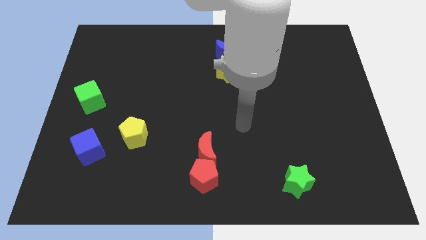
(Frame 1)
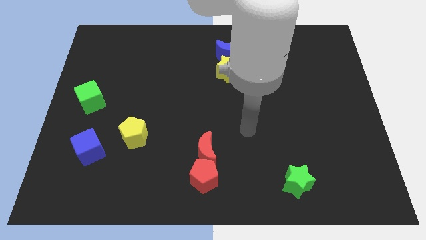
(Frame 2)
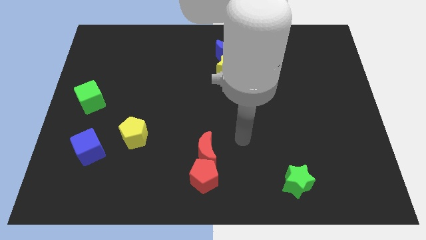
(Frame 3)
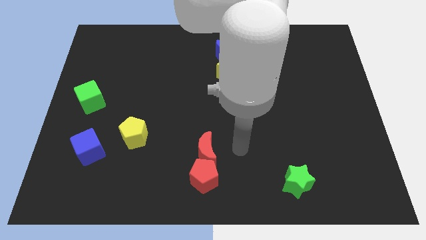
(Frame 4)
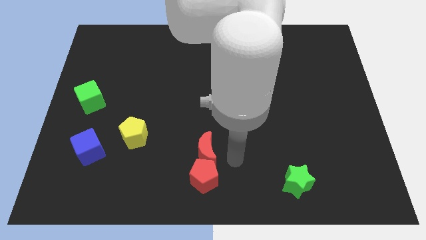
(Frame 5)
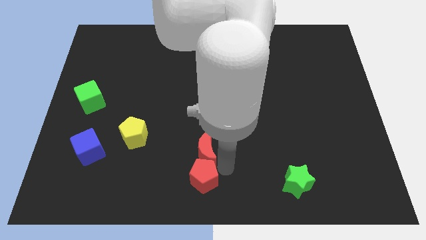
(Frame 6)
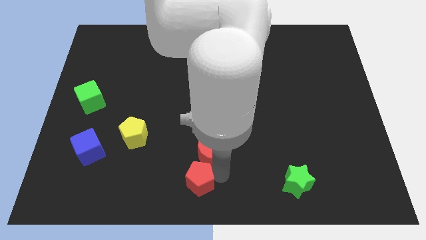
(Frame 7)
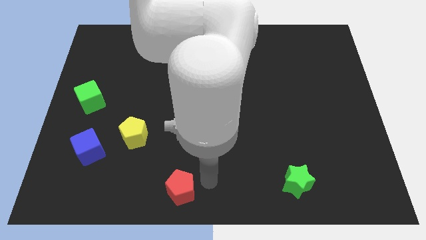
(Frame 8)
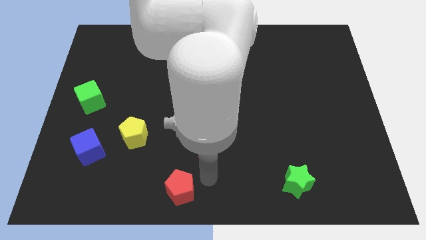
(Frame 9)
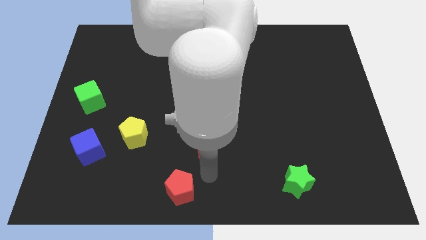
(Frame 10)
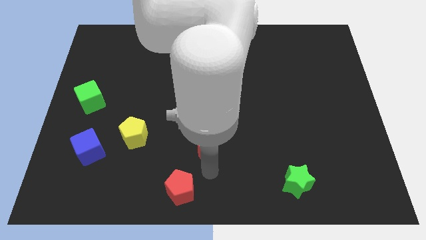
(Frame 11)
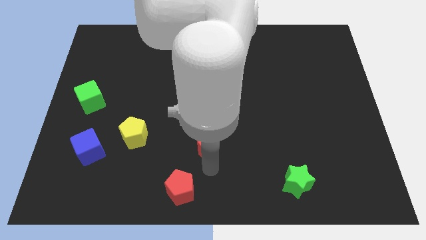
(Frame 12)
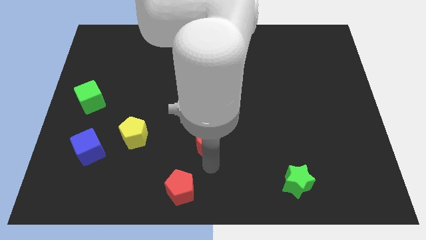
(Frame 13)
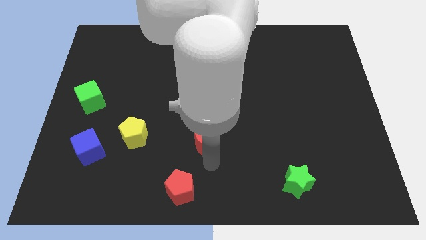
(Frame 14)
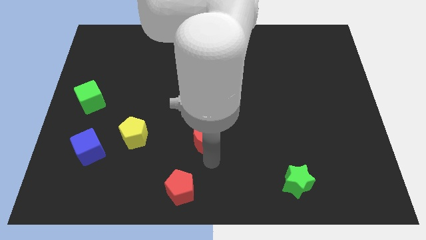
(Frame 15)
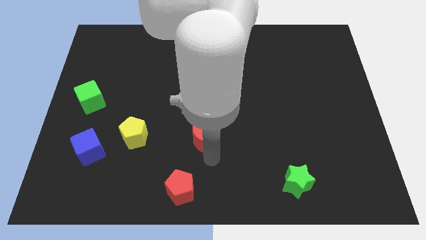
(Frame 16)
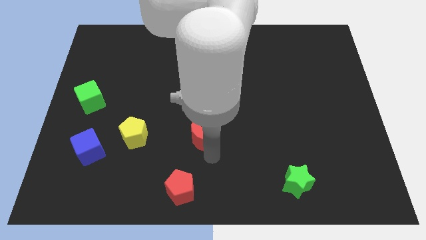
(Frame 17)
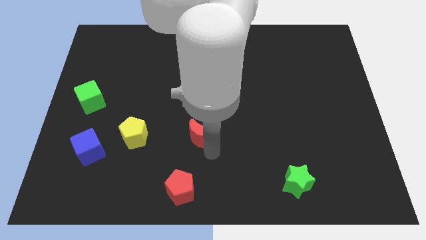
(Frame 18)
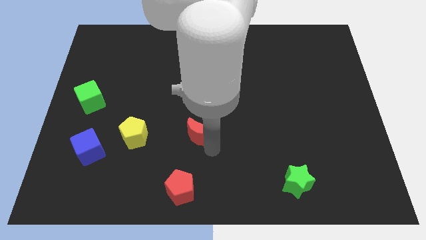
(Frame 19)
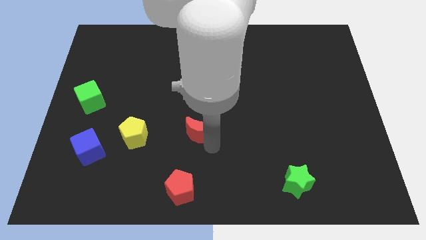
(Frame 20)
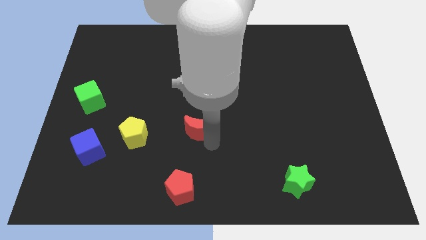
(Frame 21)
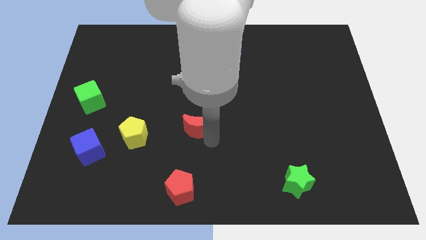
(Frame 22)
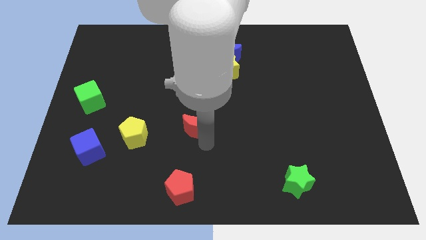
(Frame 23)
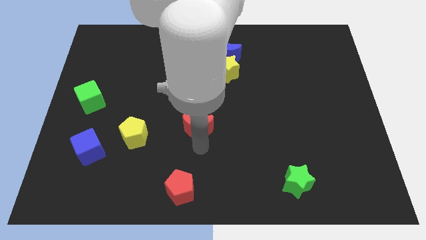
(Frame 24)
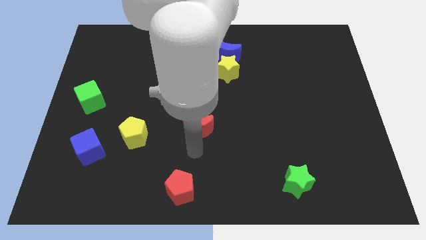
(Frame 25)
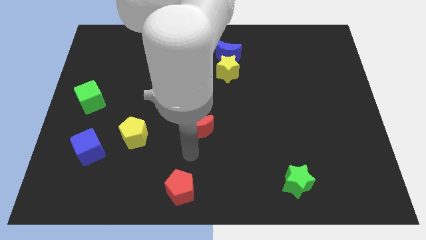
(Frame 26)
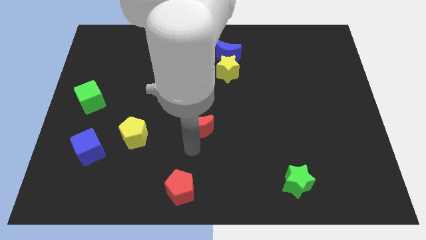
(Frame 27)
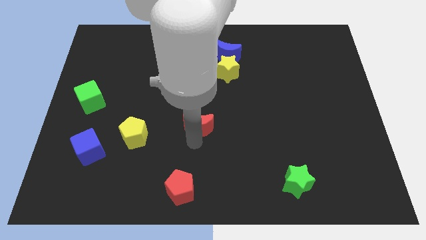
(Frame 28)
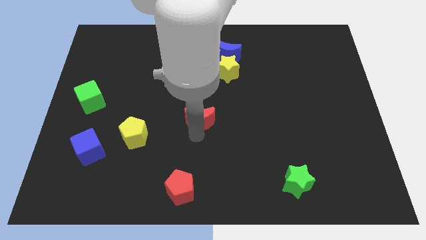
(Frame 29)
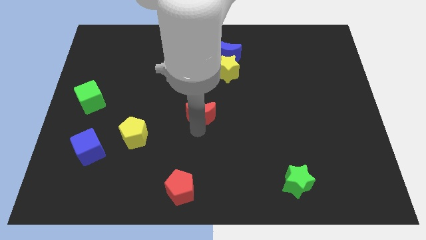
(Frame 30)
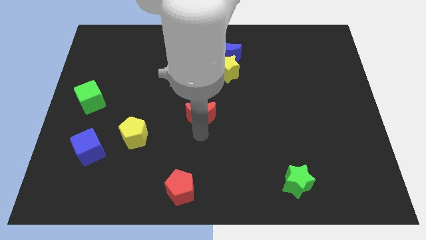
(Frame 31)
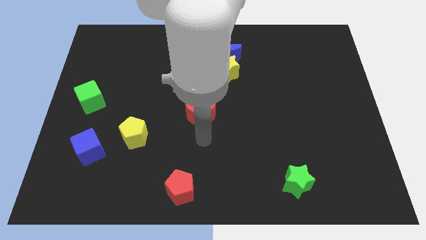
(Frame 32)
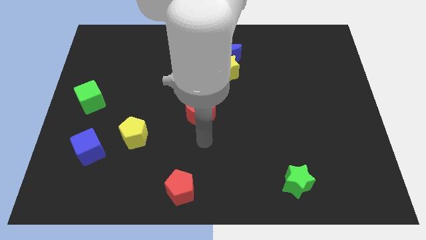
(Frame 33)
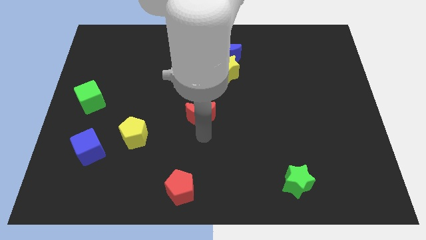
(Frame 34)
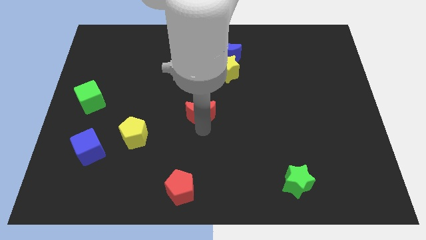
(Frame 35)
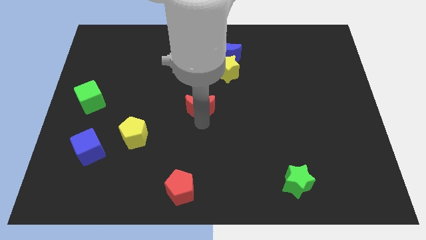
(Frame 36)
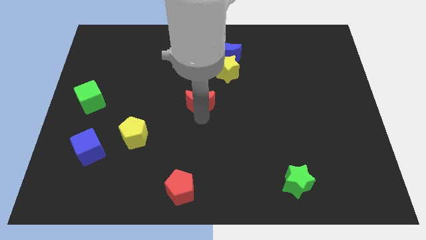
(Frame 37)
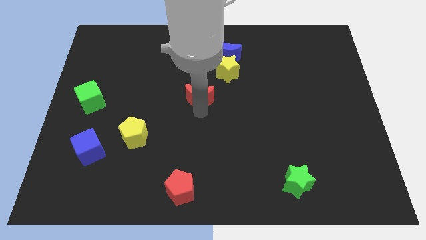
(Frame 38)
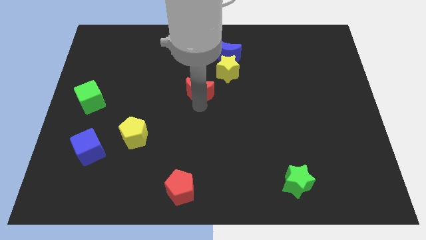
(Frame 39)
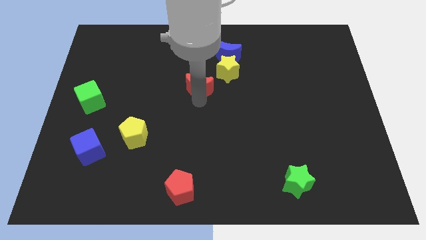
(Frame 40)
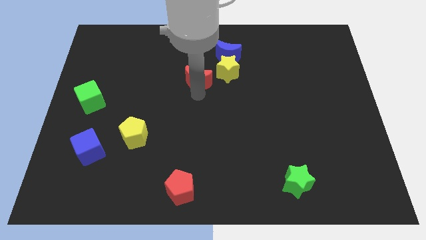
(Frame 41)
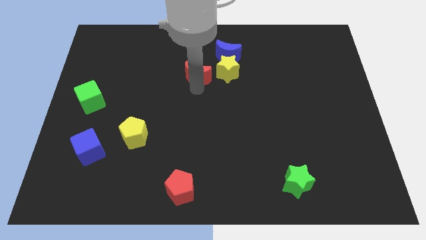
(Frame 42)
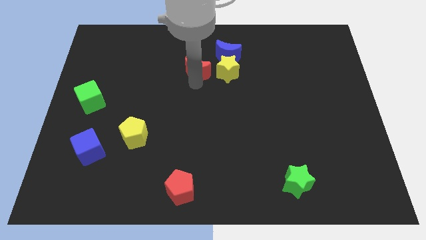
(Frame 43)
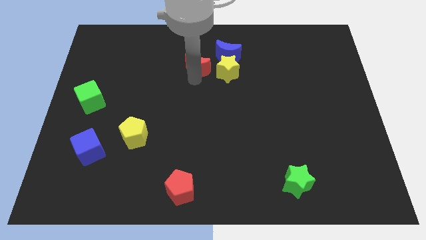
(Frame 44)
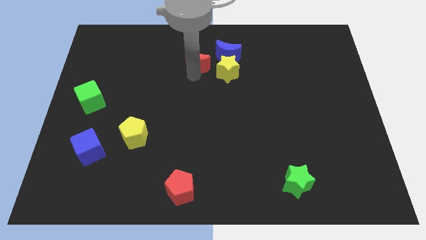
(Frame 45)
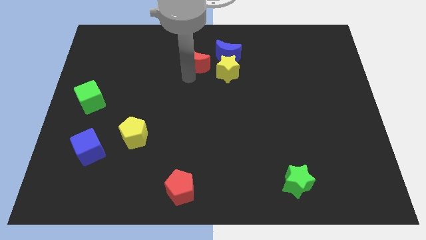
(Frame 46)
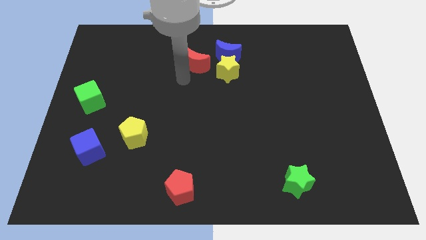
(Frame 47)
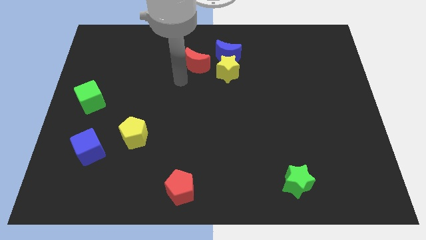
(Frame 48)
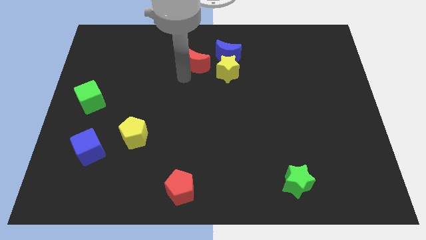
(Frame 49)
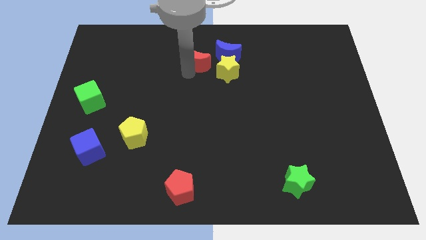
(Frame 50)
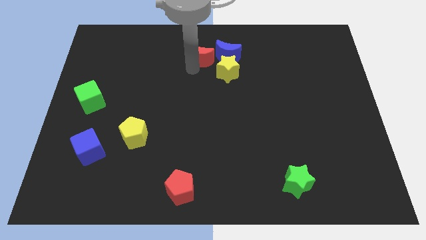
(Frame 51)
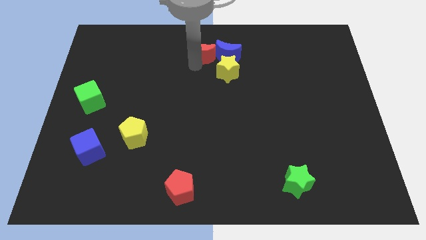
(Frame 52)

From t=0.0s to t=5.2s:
slide the red moon to the top

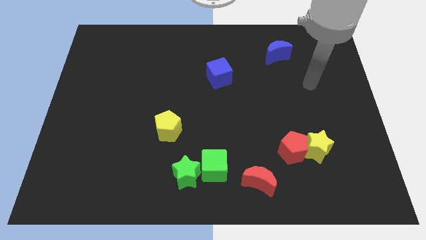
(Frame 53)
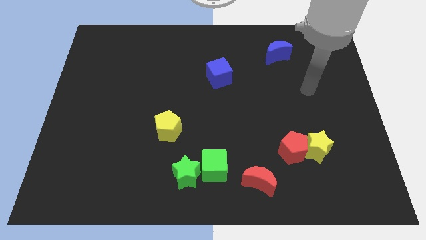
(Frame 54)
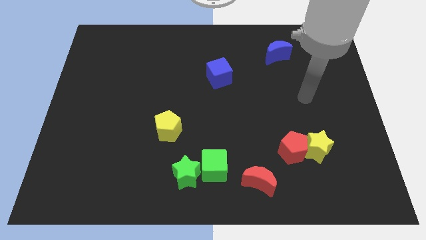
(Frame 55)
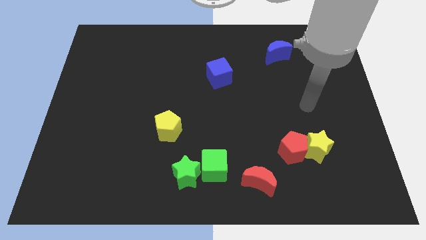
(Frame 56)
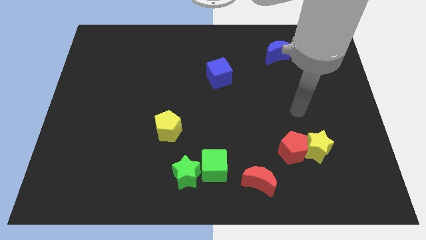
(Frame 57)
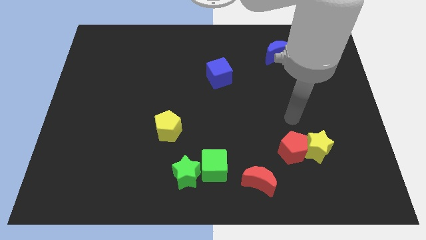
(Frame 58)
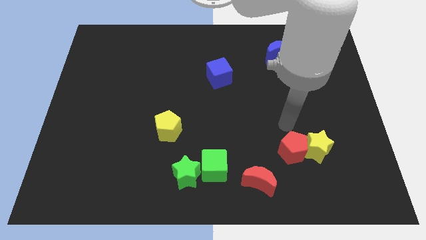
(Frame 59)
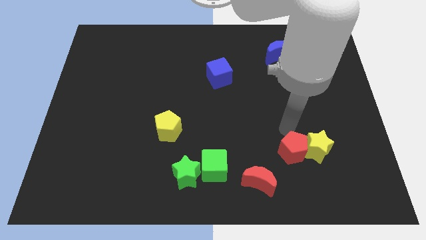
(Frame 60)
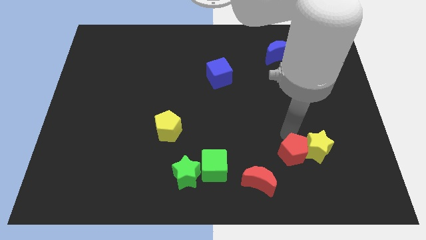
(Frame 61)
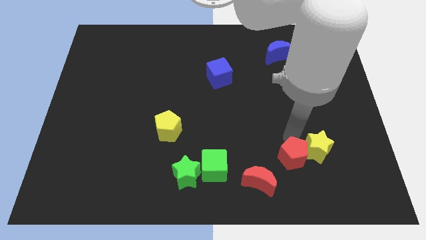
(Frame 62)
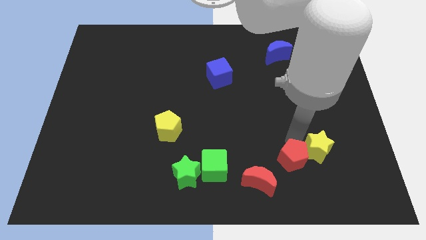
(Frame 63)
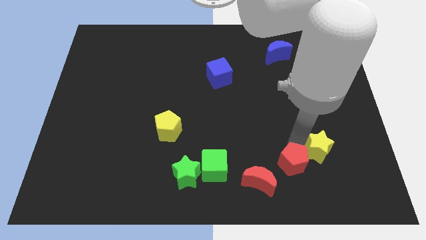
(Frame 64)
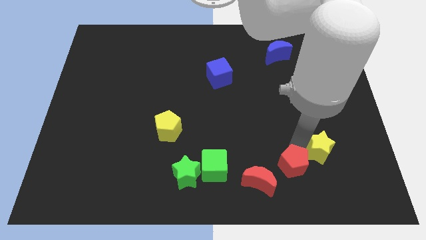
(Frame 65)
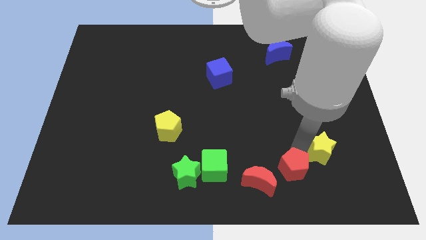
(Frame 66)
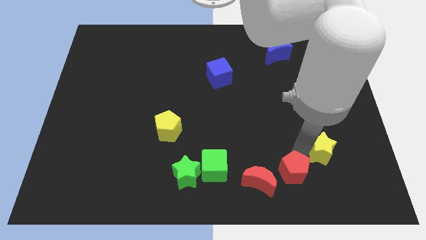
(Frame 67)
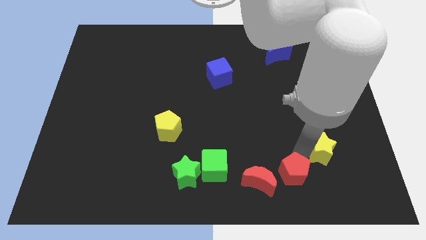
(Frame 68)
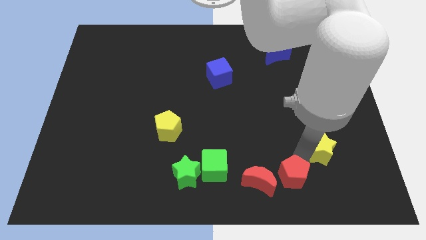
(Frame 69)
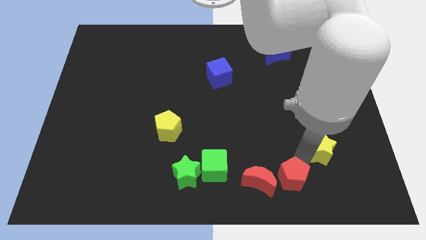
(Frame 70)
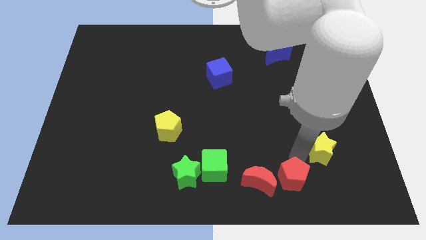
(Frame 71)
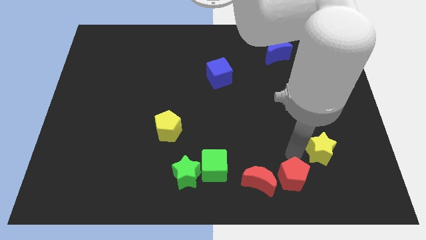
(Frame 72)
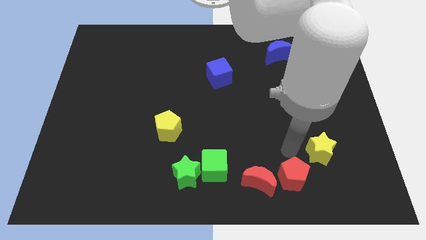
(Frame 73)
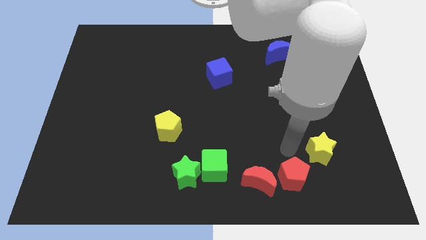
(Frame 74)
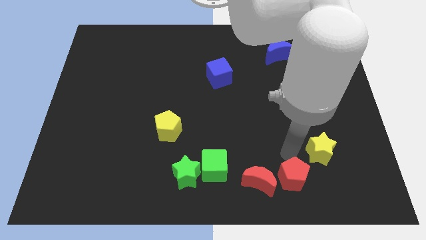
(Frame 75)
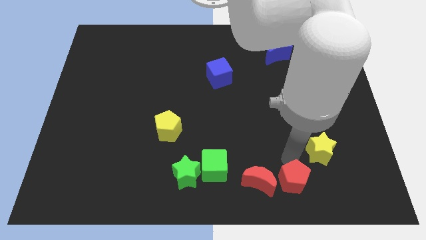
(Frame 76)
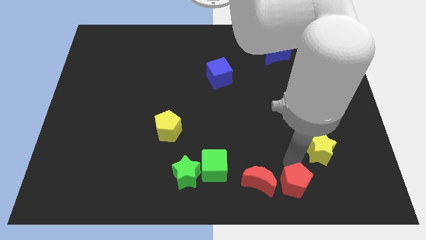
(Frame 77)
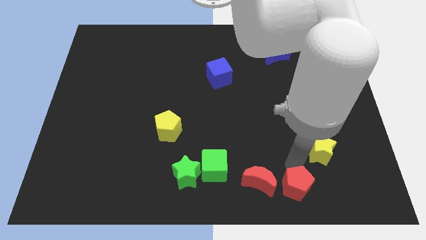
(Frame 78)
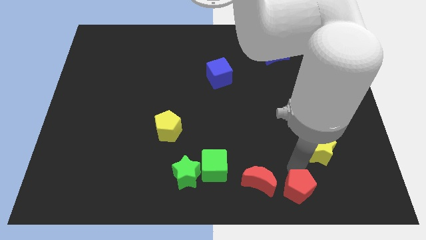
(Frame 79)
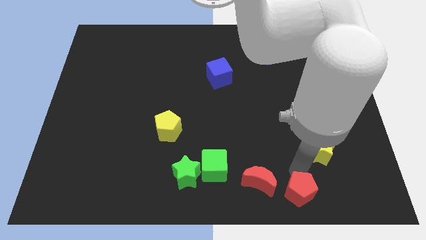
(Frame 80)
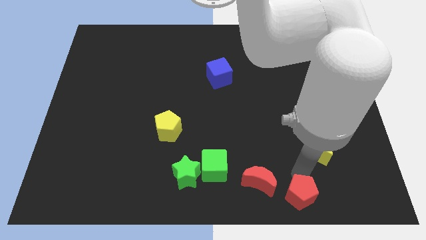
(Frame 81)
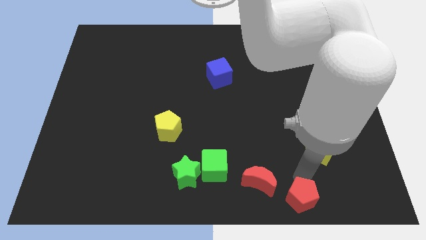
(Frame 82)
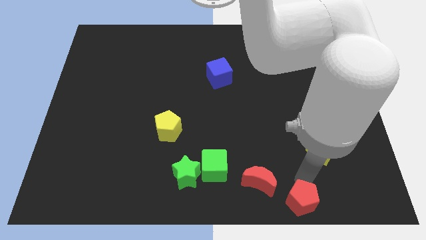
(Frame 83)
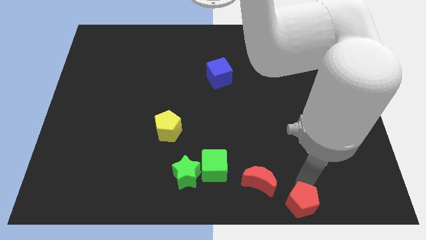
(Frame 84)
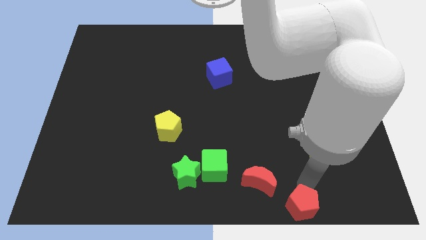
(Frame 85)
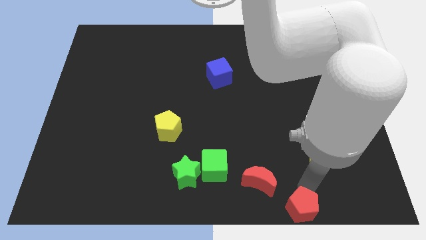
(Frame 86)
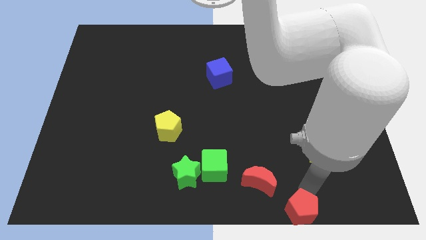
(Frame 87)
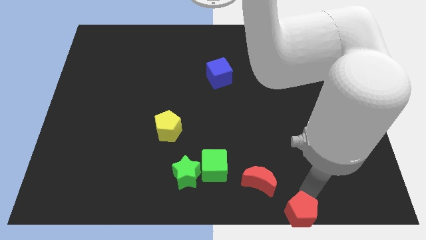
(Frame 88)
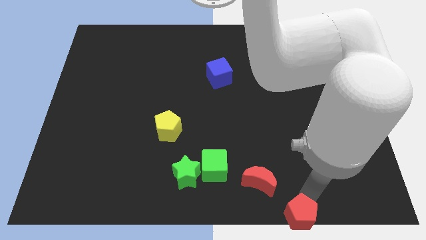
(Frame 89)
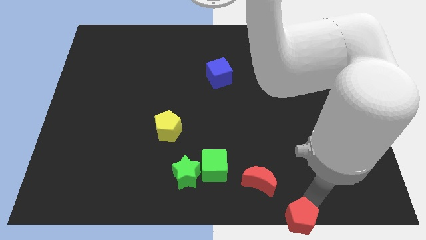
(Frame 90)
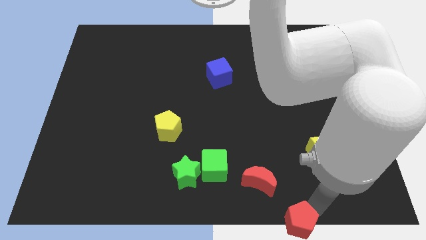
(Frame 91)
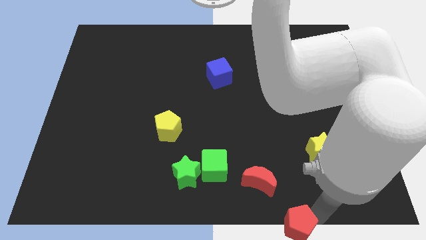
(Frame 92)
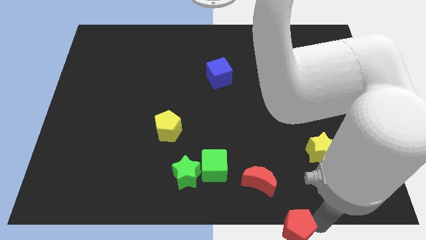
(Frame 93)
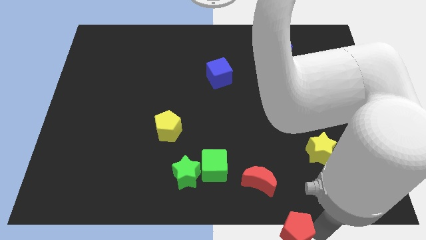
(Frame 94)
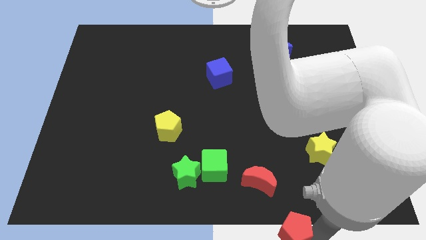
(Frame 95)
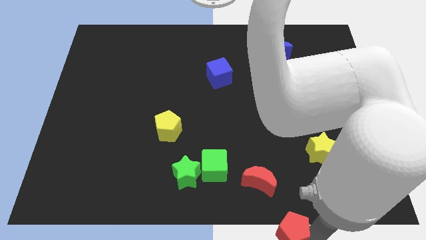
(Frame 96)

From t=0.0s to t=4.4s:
push the red pentagon to the bottom
